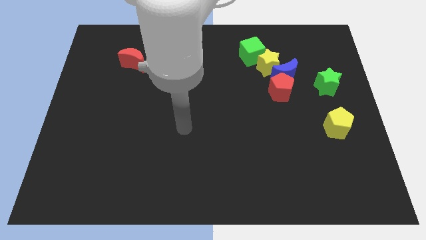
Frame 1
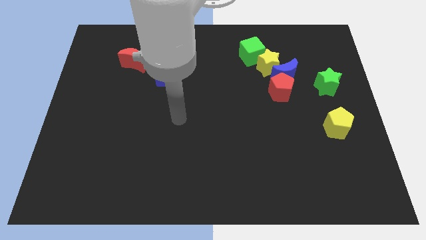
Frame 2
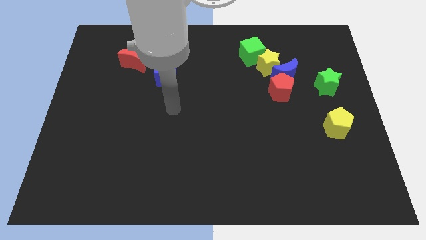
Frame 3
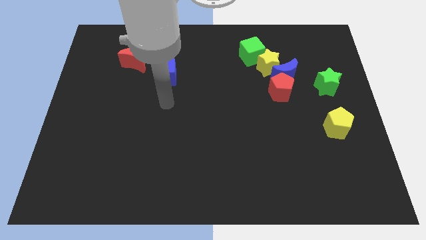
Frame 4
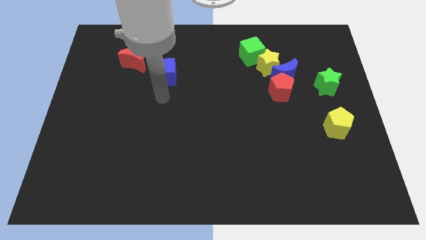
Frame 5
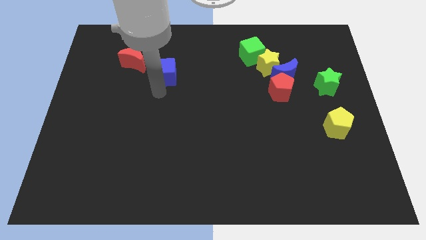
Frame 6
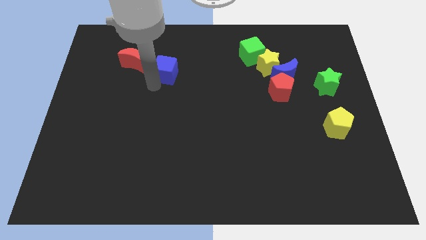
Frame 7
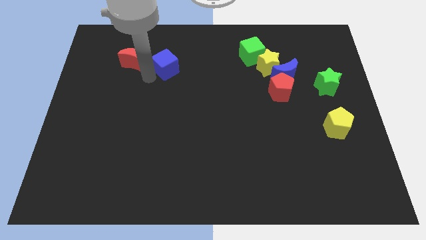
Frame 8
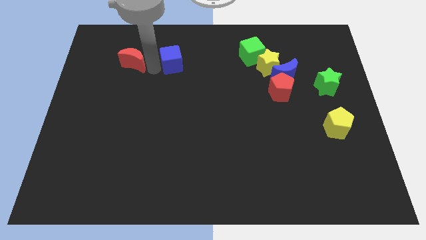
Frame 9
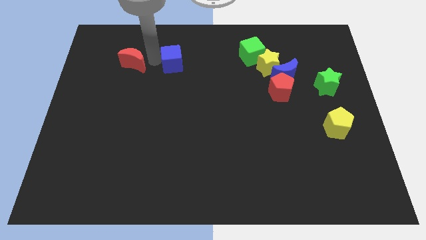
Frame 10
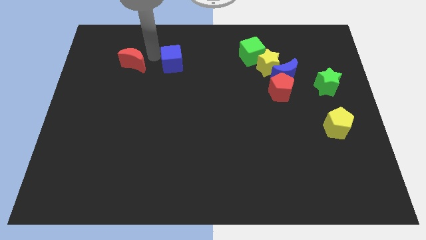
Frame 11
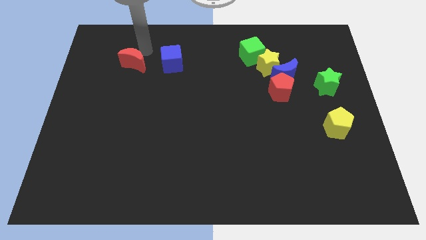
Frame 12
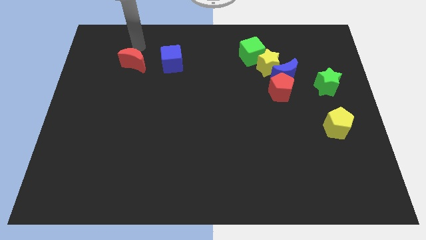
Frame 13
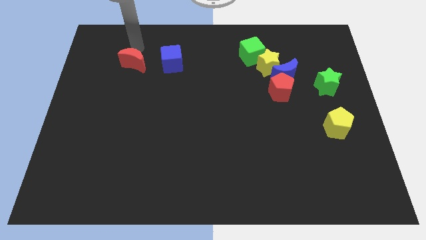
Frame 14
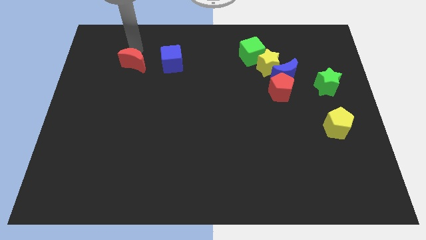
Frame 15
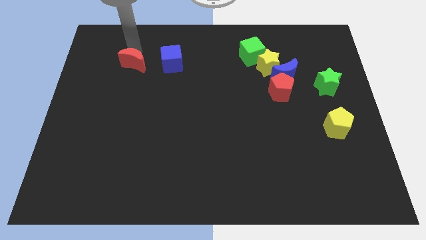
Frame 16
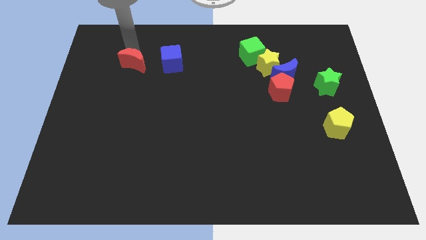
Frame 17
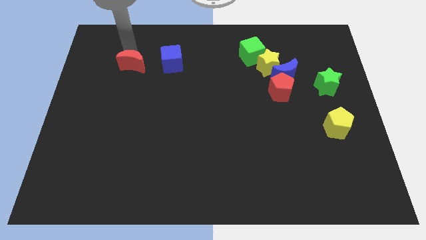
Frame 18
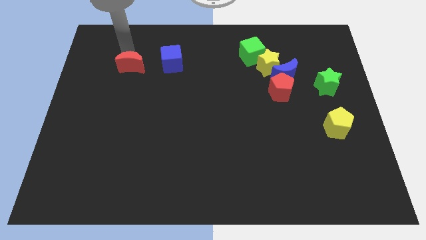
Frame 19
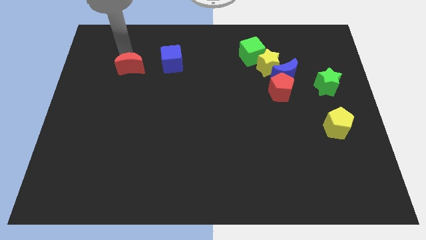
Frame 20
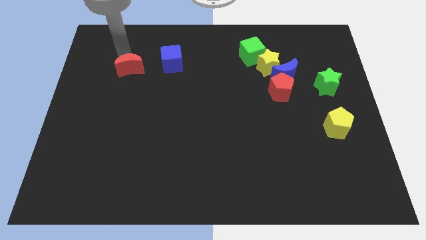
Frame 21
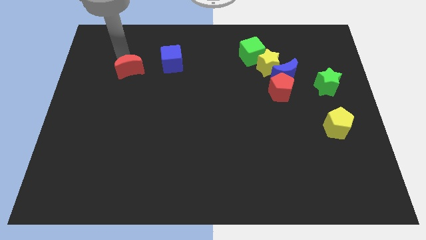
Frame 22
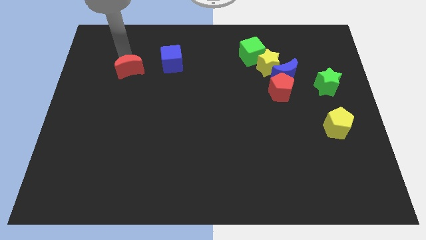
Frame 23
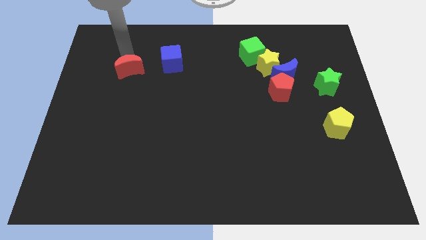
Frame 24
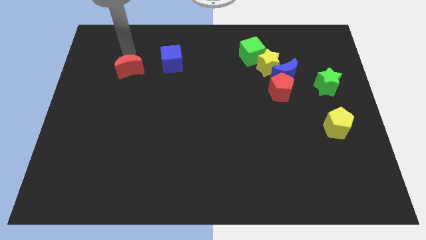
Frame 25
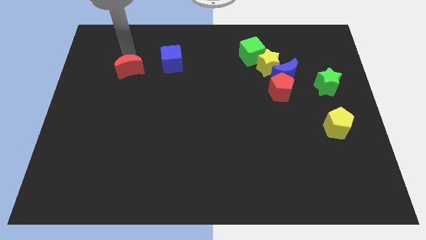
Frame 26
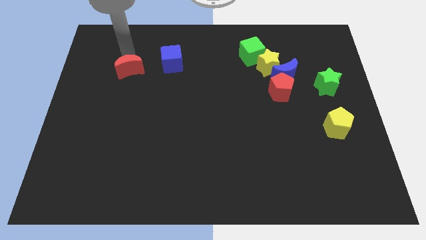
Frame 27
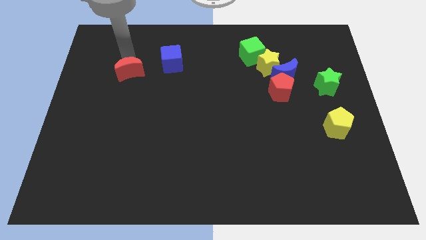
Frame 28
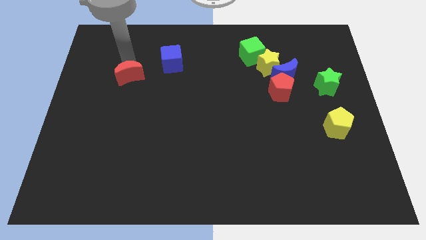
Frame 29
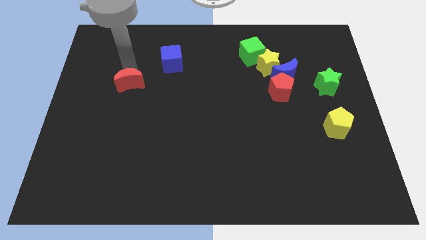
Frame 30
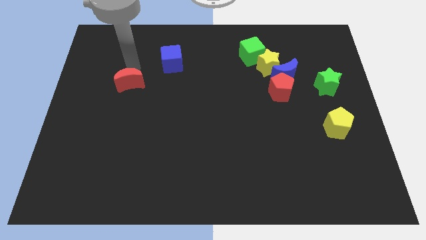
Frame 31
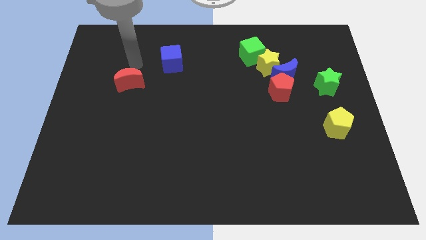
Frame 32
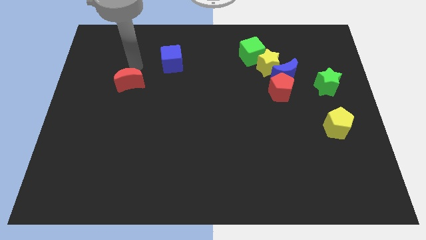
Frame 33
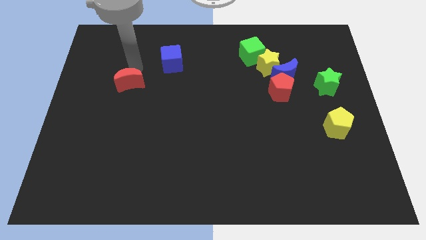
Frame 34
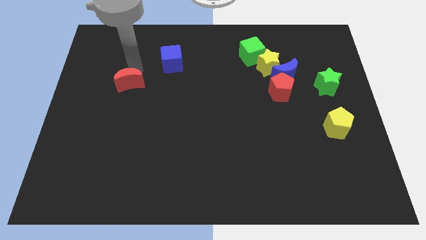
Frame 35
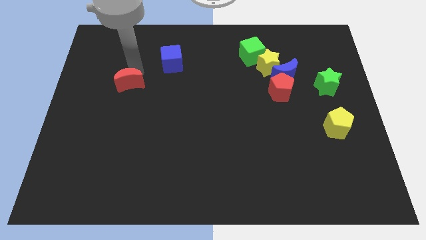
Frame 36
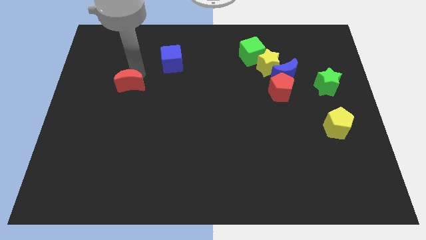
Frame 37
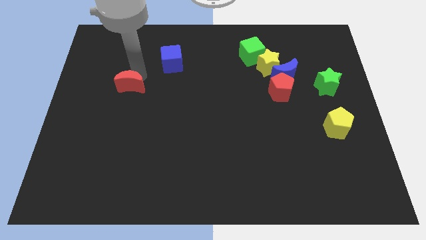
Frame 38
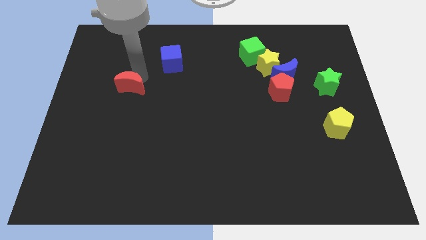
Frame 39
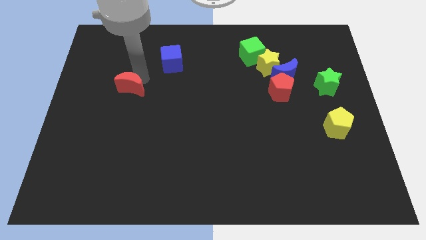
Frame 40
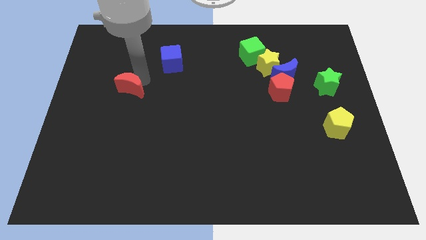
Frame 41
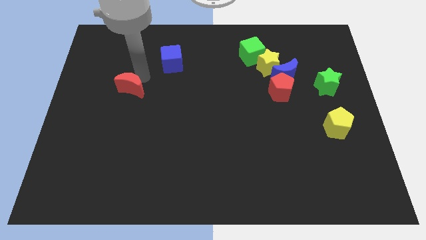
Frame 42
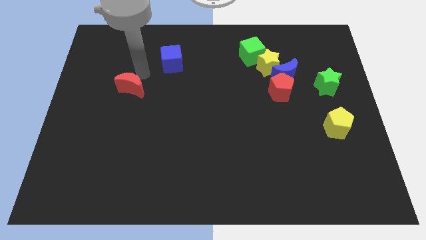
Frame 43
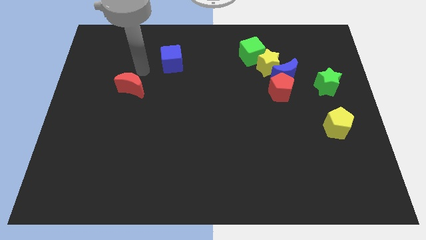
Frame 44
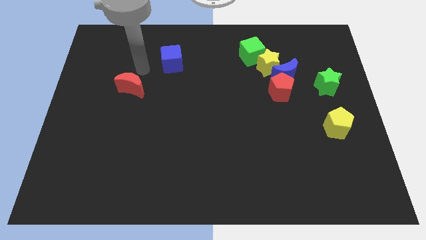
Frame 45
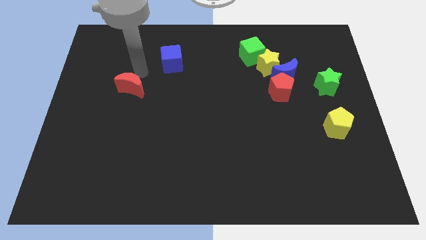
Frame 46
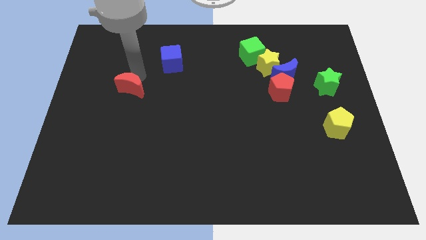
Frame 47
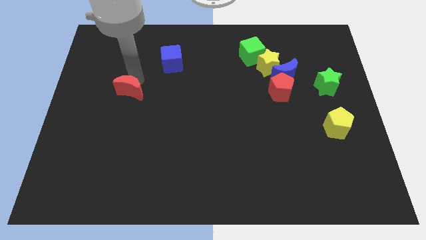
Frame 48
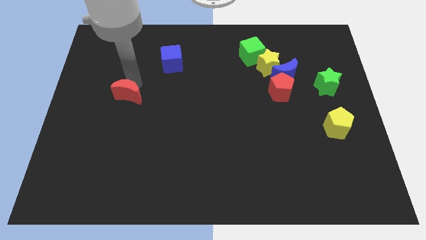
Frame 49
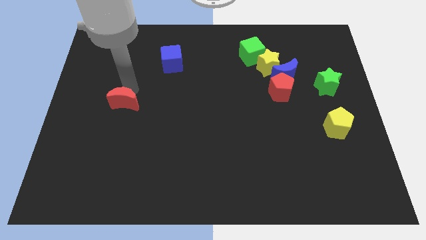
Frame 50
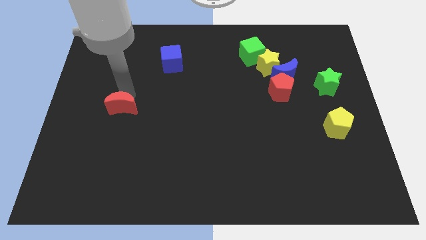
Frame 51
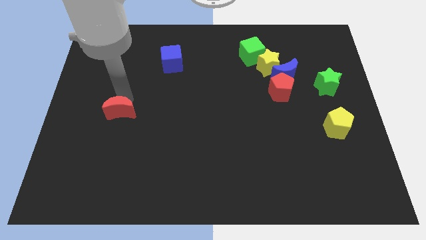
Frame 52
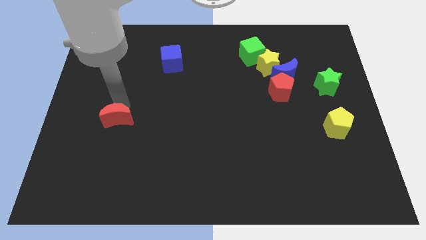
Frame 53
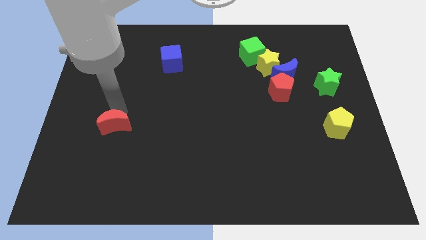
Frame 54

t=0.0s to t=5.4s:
push the red moon downwards

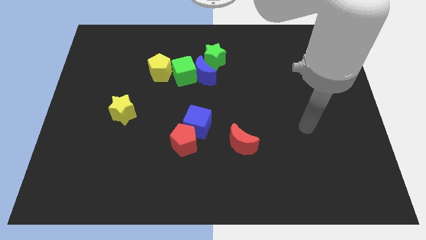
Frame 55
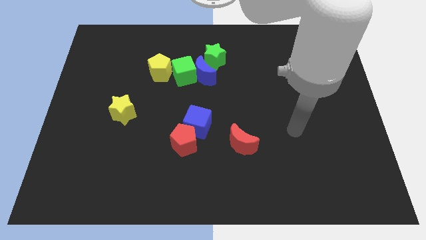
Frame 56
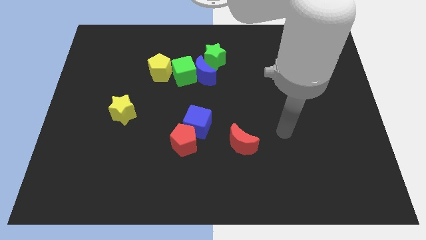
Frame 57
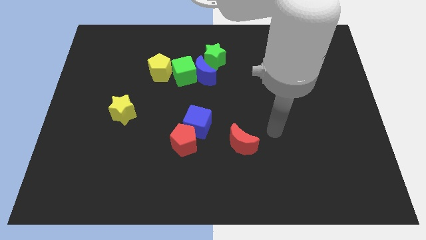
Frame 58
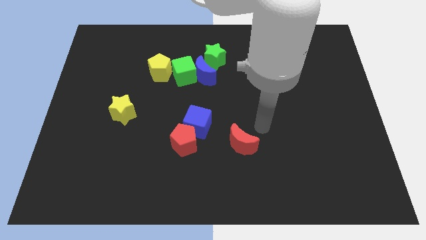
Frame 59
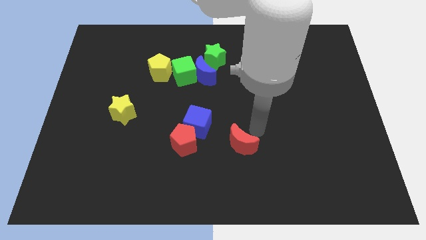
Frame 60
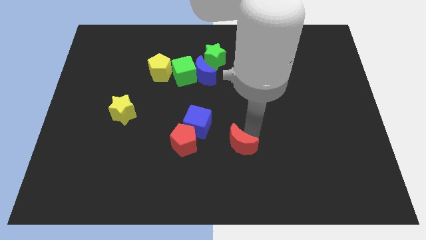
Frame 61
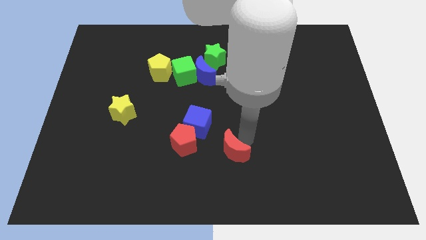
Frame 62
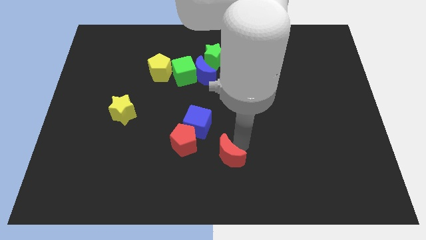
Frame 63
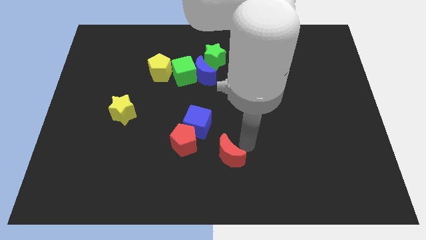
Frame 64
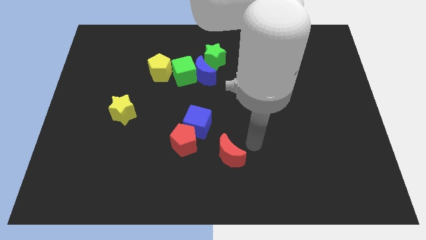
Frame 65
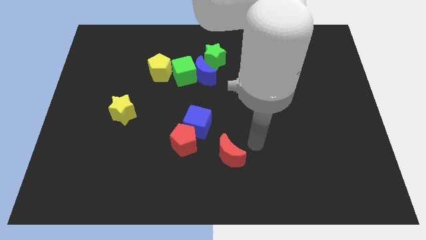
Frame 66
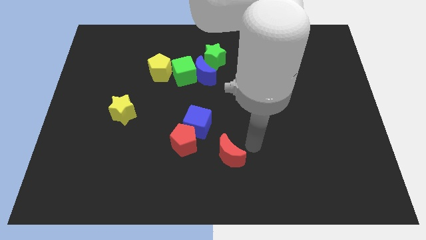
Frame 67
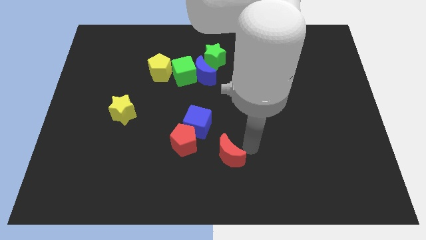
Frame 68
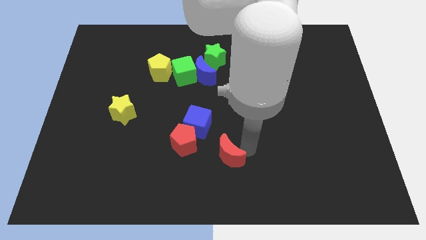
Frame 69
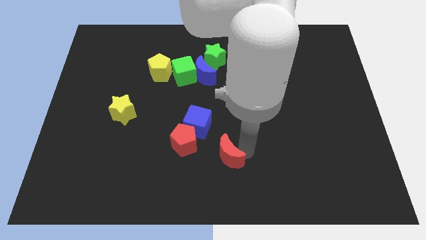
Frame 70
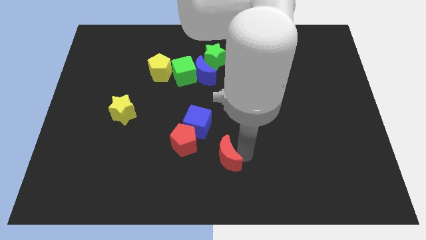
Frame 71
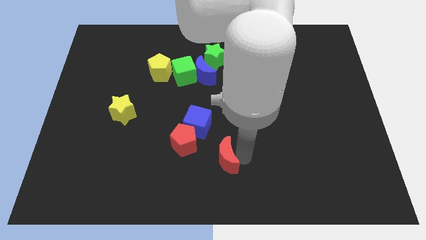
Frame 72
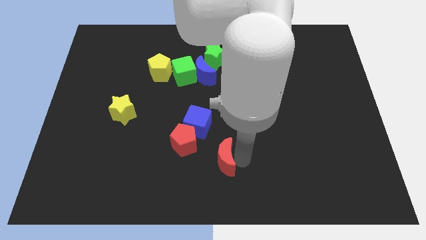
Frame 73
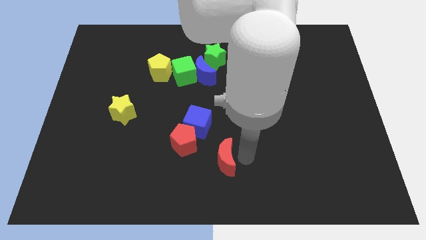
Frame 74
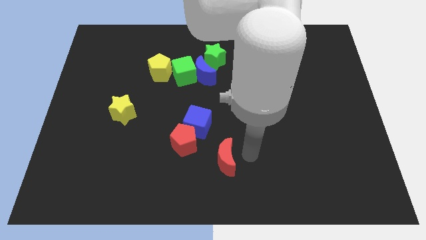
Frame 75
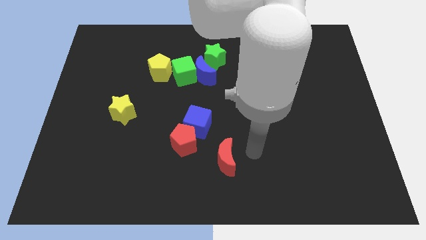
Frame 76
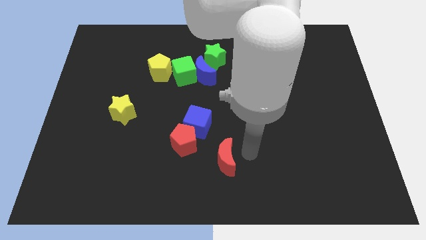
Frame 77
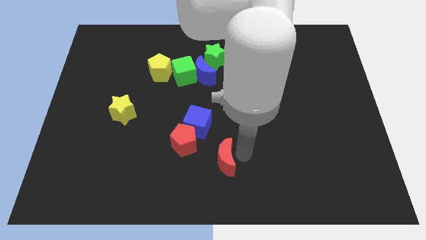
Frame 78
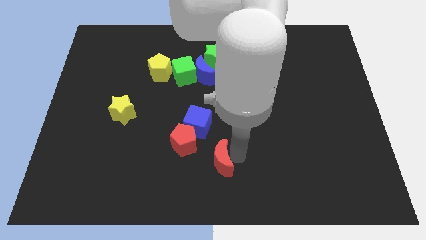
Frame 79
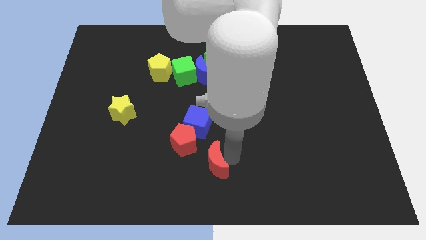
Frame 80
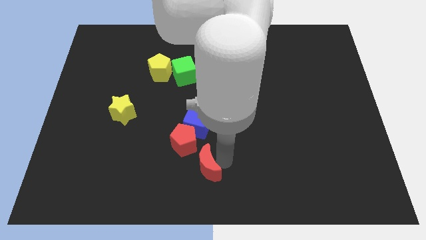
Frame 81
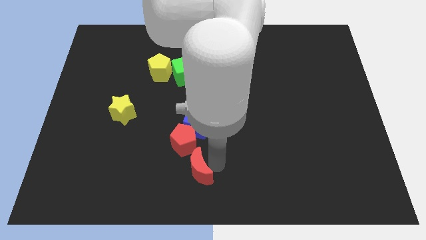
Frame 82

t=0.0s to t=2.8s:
slightly move the red moon to the left
